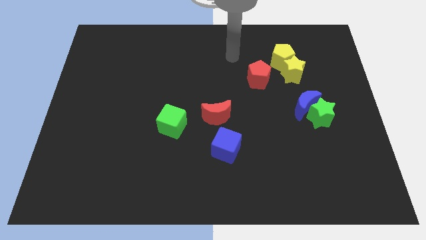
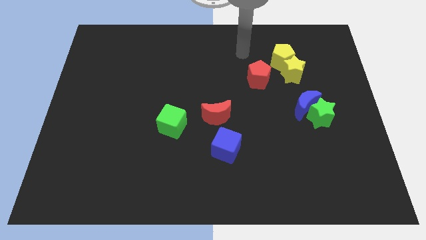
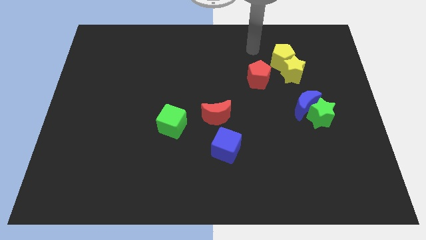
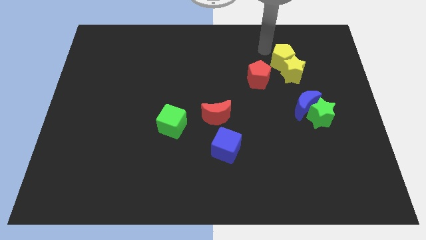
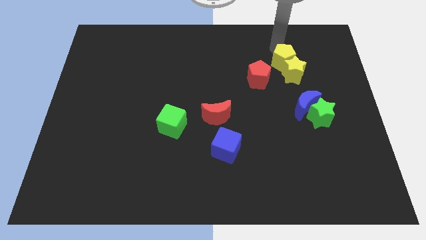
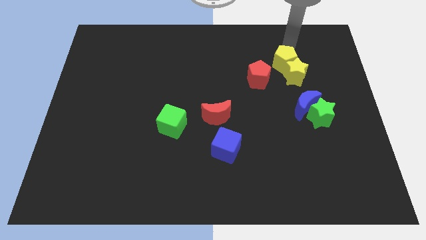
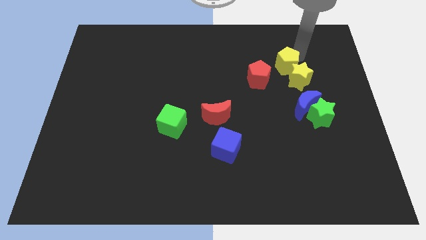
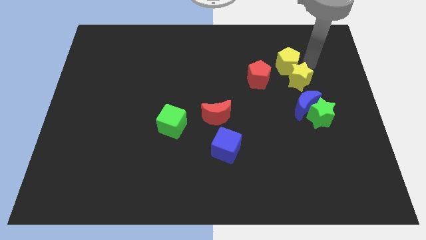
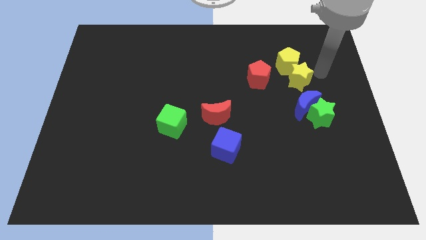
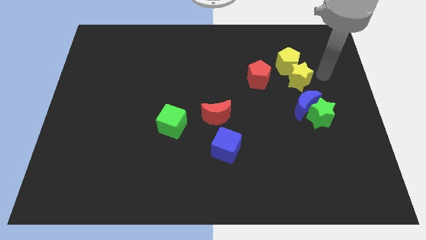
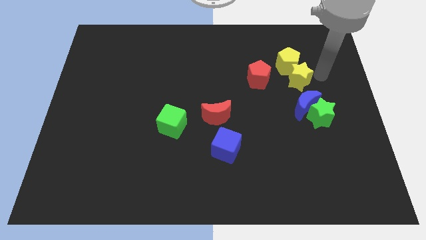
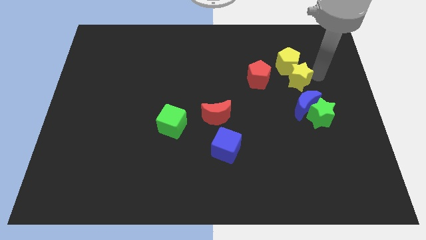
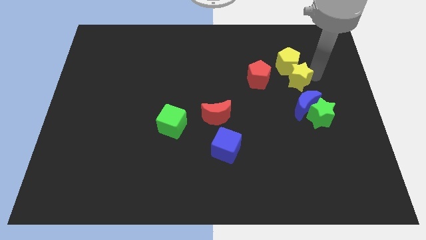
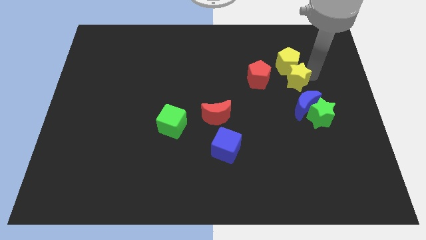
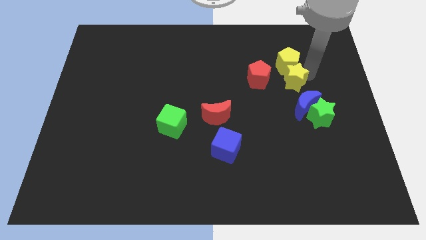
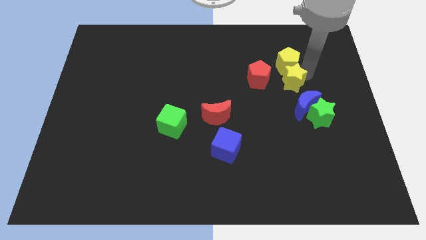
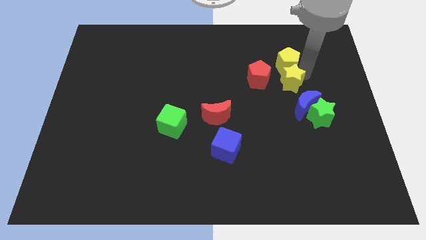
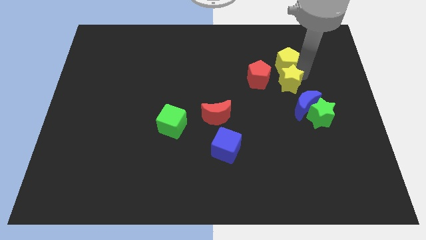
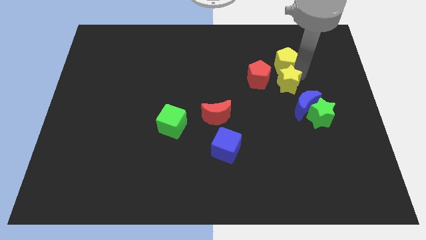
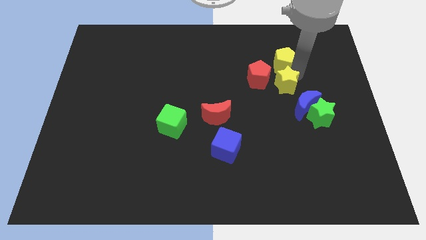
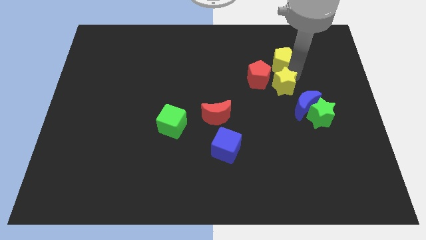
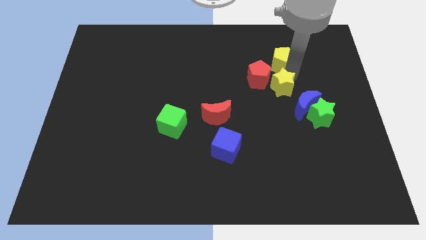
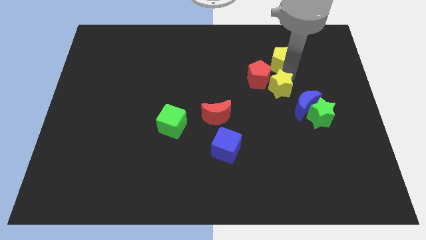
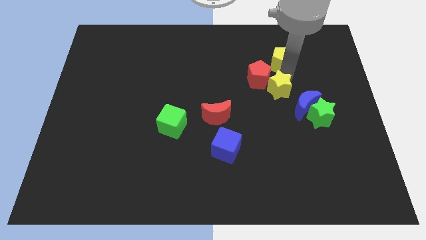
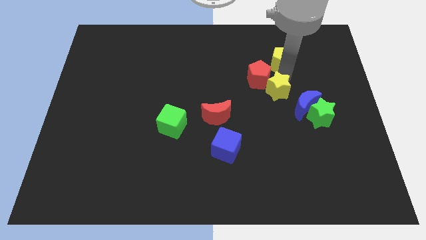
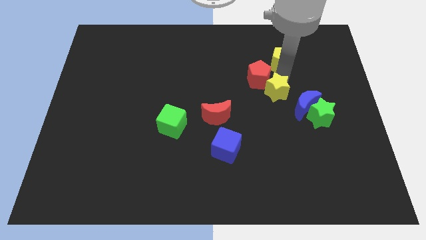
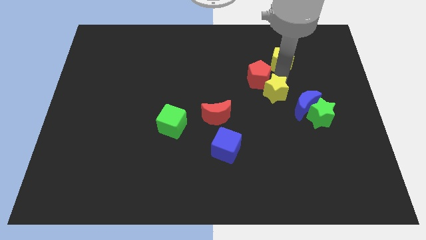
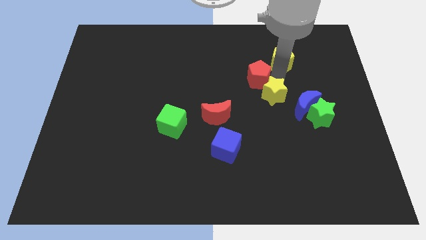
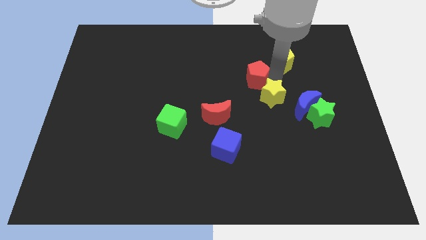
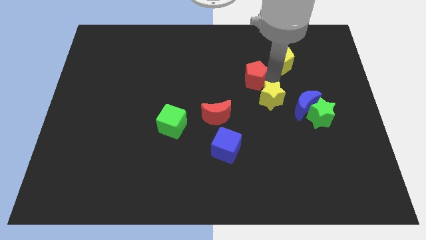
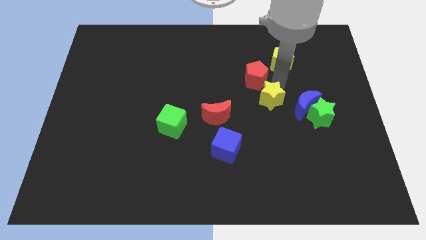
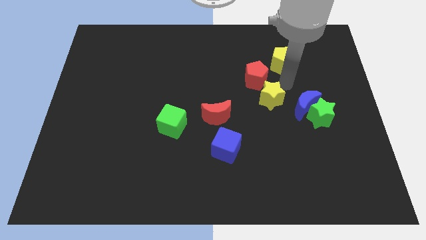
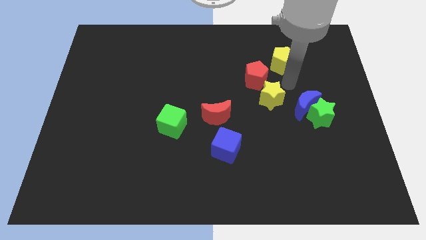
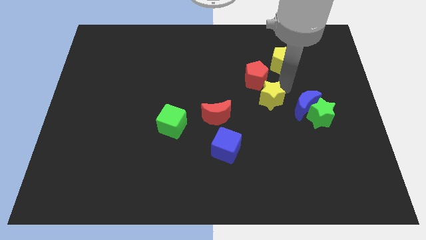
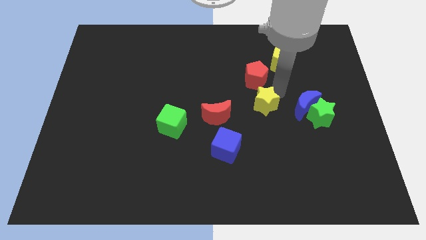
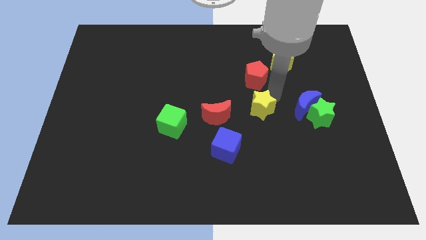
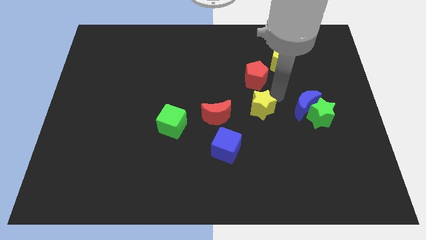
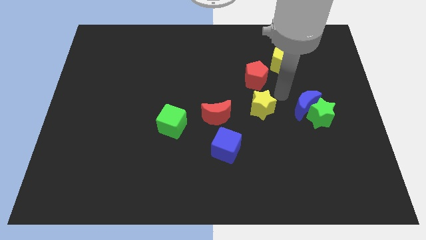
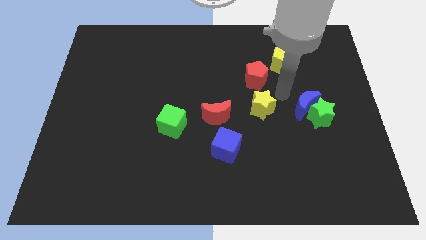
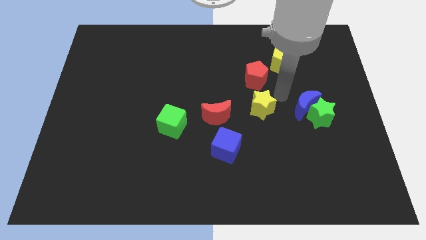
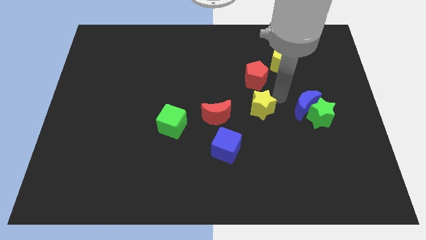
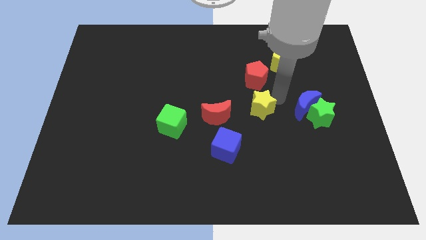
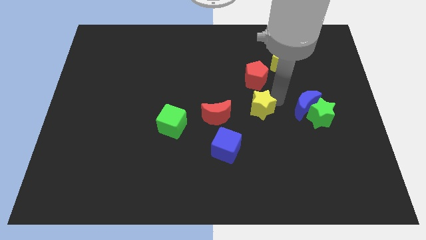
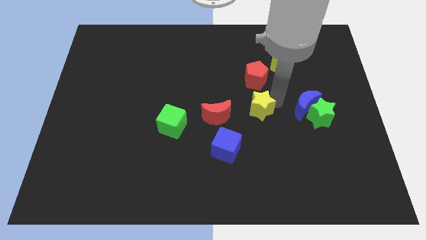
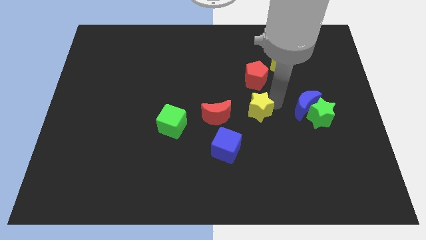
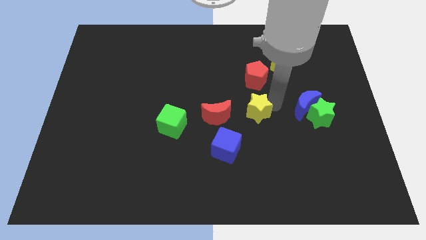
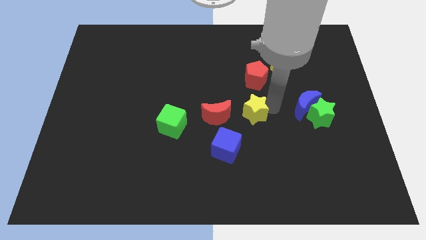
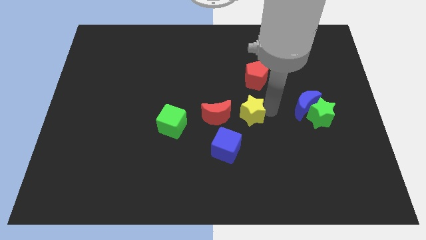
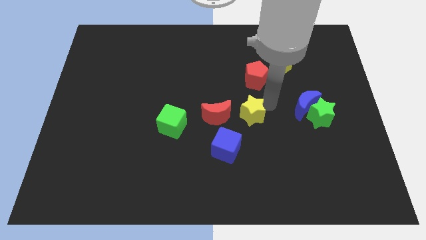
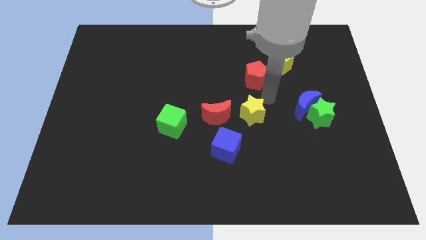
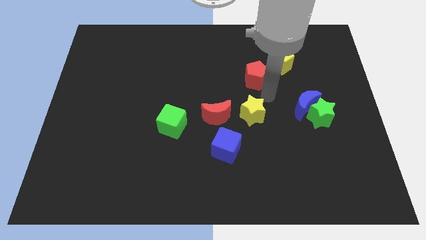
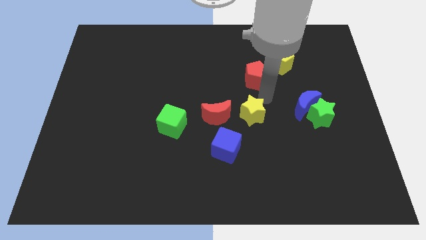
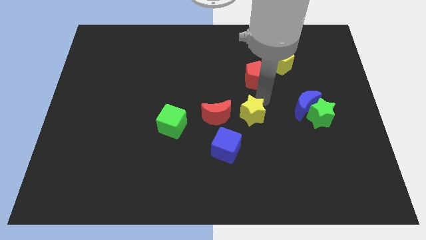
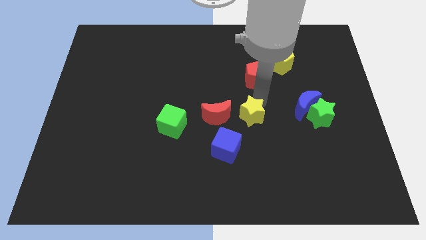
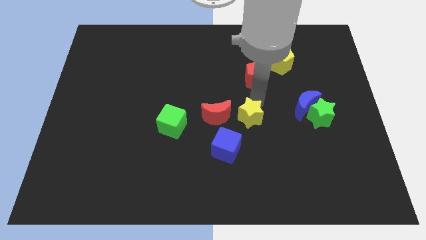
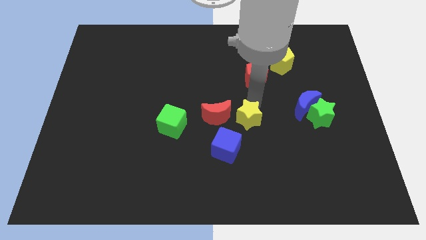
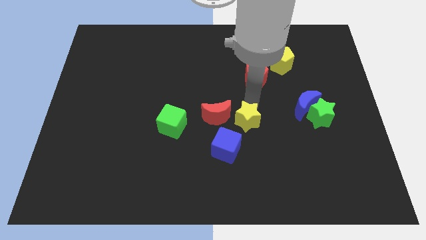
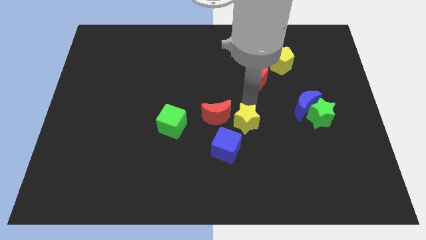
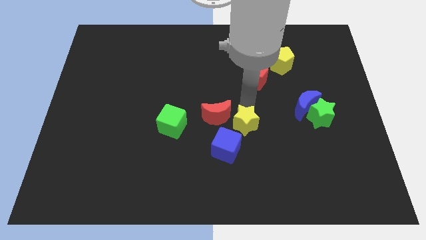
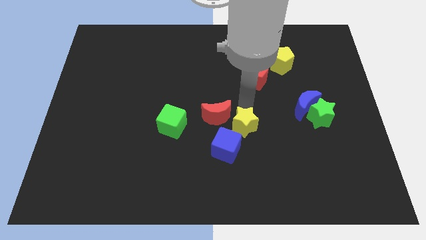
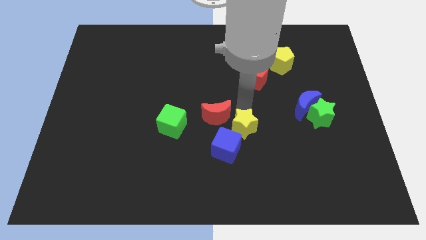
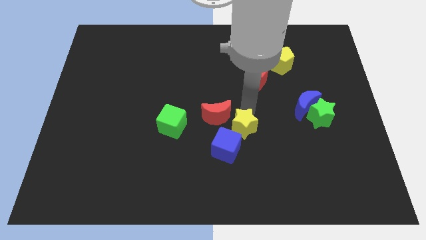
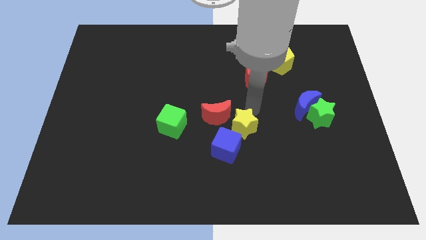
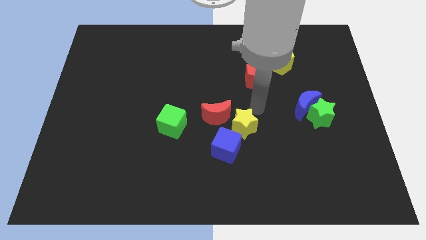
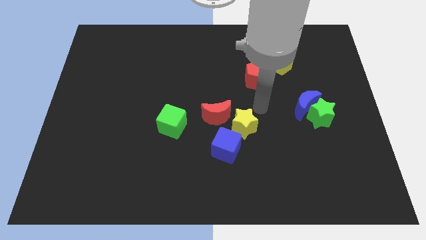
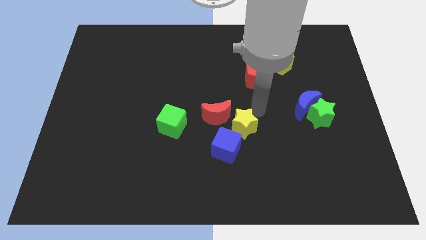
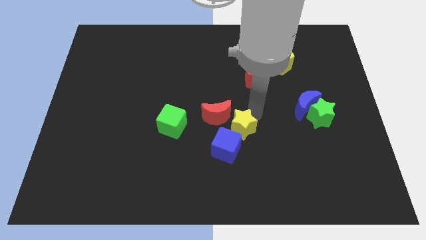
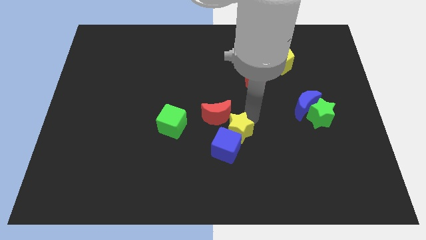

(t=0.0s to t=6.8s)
move the yellow star next to the blue cube
